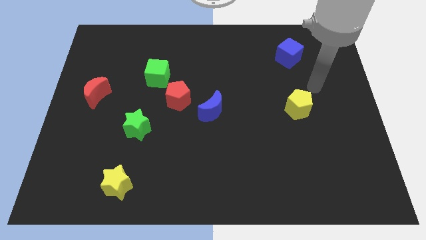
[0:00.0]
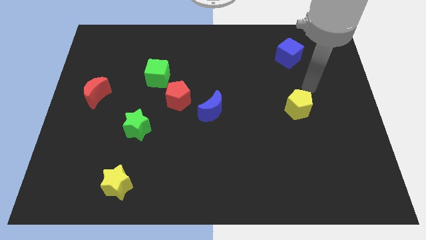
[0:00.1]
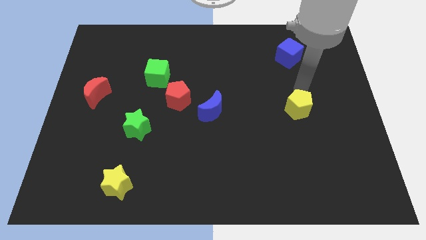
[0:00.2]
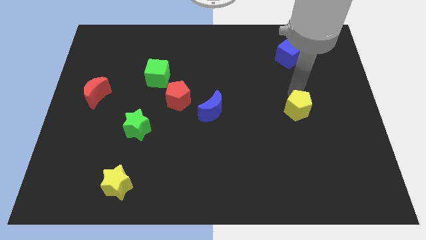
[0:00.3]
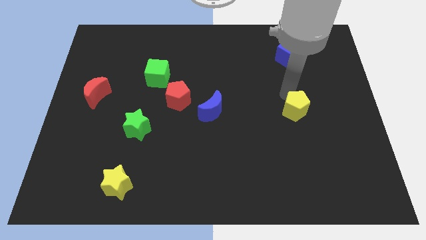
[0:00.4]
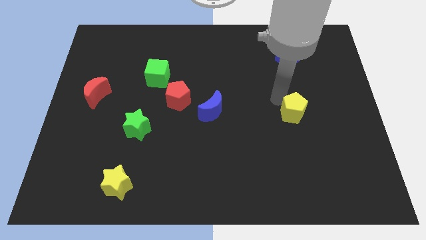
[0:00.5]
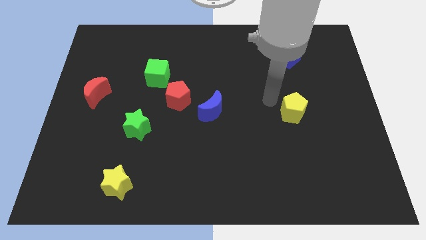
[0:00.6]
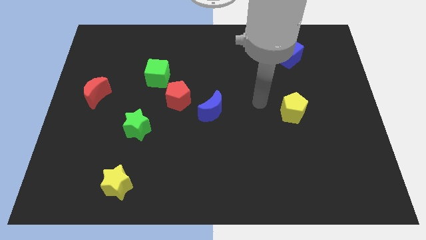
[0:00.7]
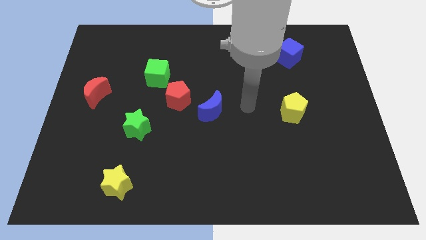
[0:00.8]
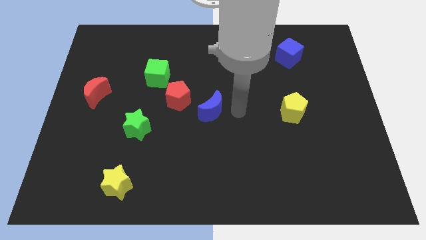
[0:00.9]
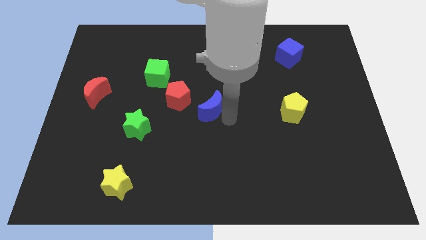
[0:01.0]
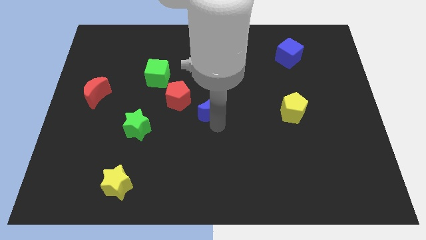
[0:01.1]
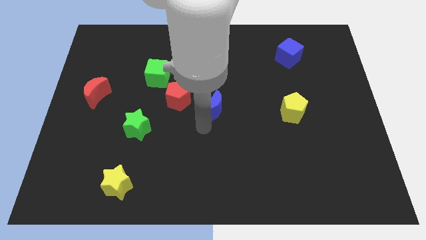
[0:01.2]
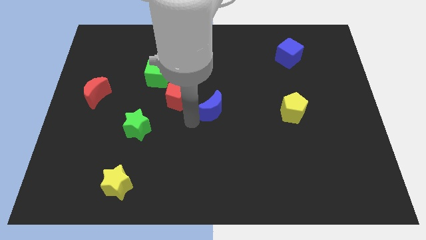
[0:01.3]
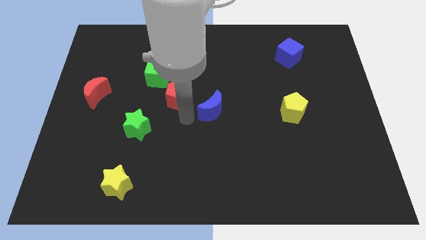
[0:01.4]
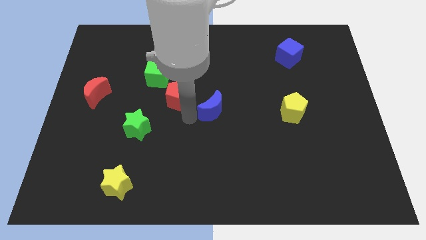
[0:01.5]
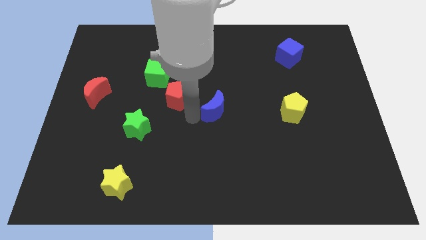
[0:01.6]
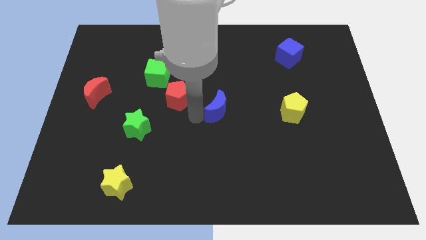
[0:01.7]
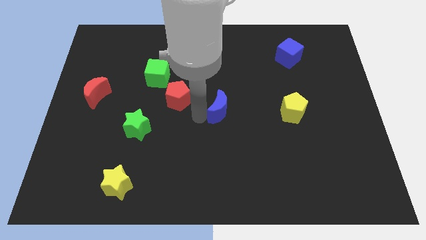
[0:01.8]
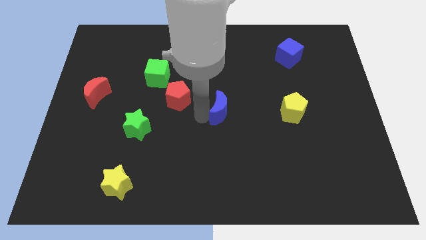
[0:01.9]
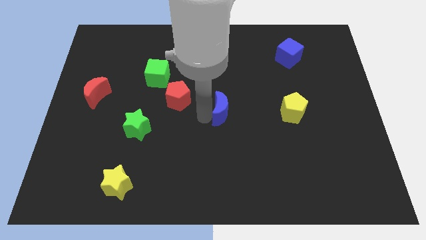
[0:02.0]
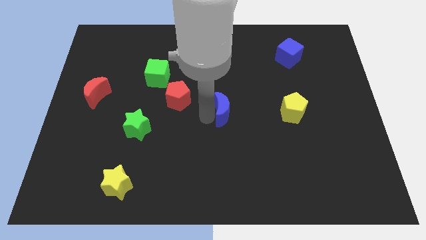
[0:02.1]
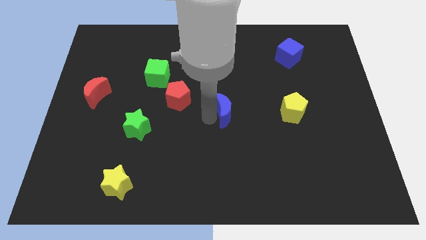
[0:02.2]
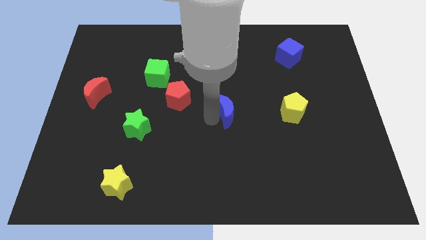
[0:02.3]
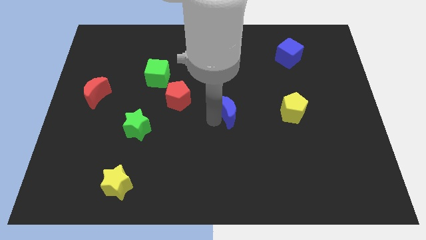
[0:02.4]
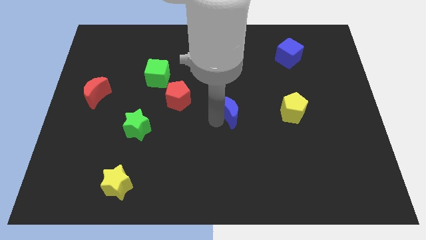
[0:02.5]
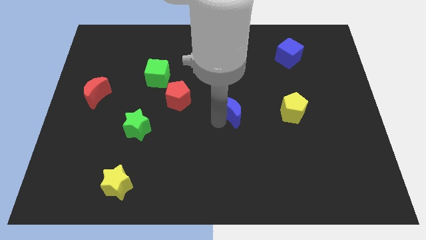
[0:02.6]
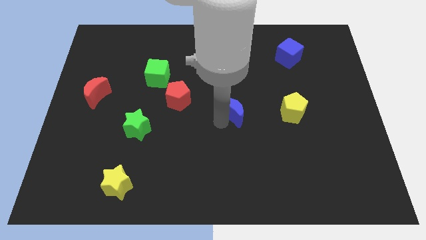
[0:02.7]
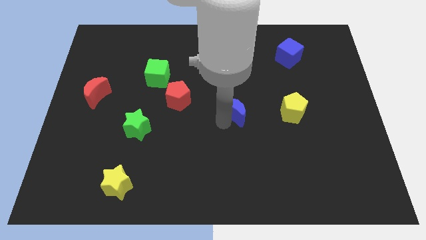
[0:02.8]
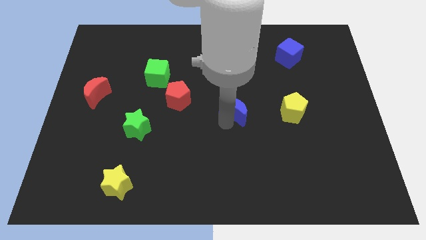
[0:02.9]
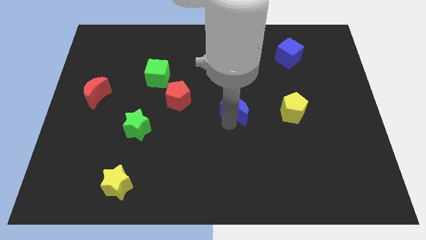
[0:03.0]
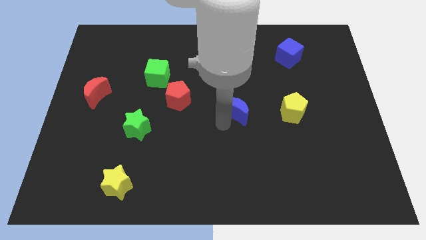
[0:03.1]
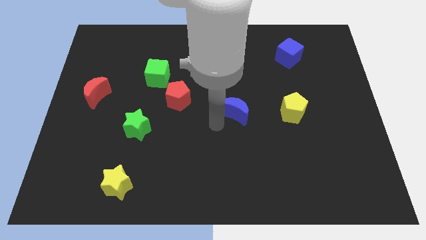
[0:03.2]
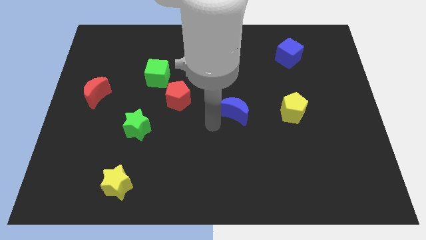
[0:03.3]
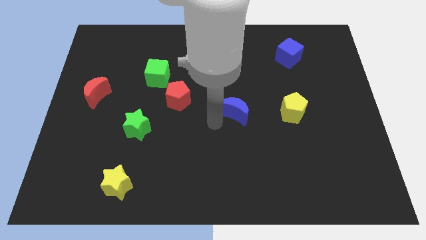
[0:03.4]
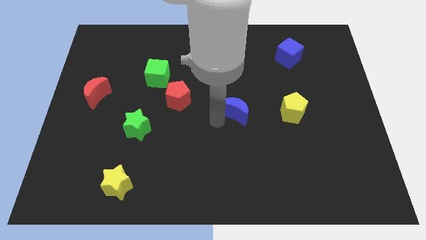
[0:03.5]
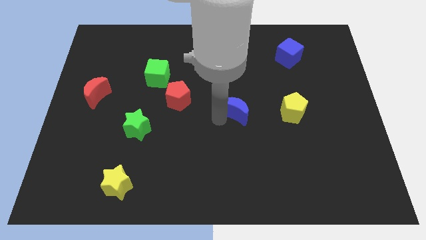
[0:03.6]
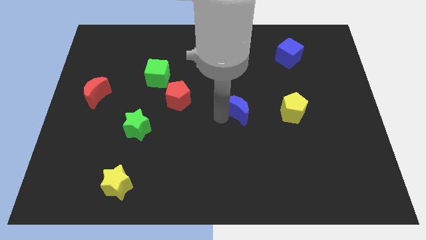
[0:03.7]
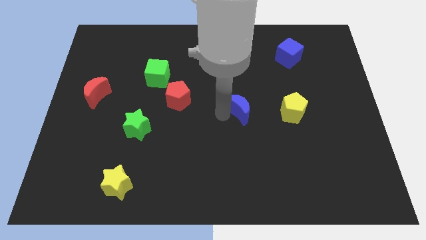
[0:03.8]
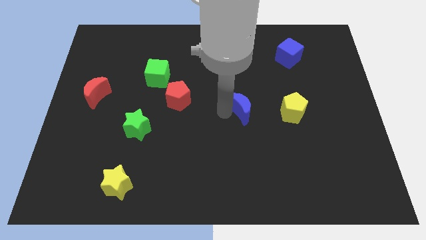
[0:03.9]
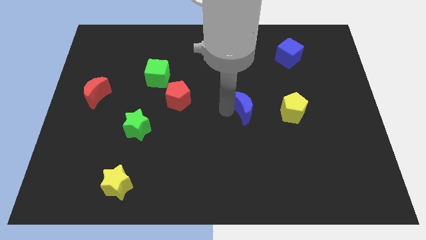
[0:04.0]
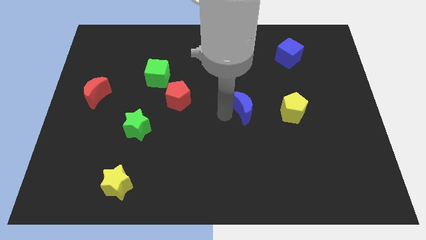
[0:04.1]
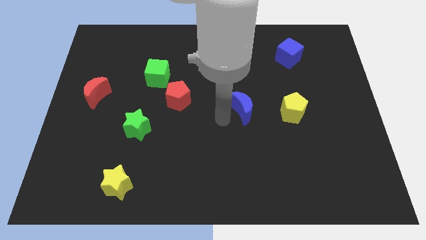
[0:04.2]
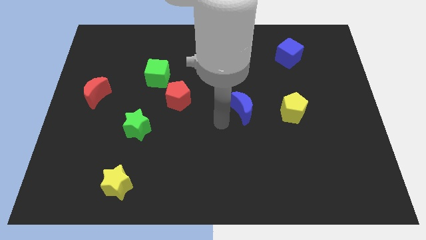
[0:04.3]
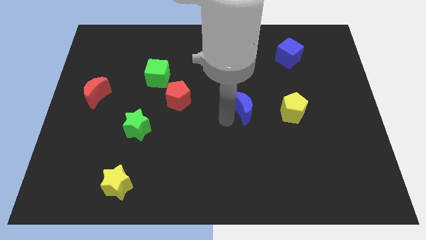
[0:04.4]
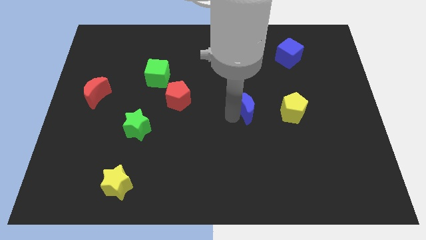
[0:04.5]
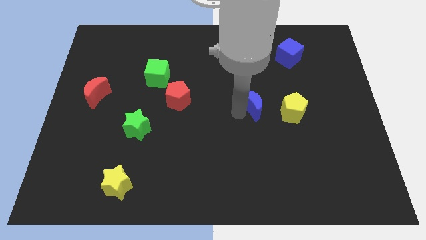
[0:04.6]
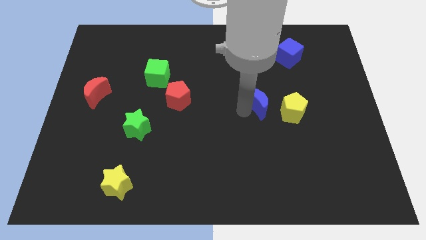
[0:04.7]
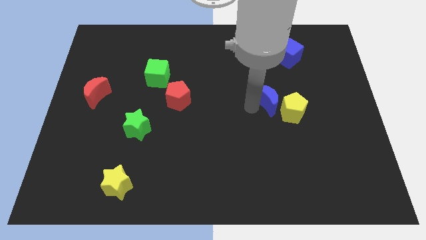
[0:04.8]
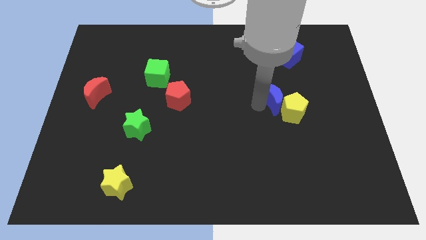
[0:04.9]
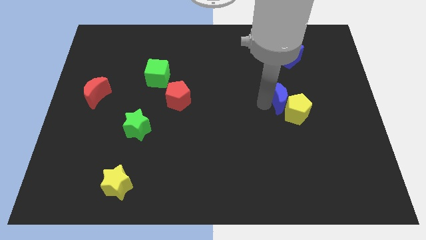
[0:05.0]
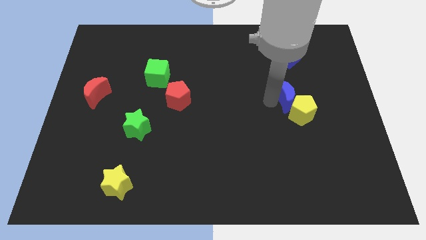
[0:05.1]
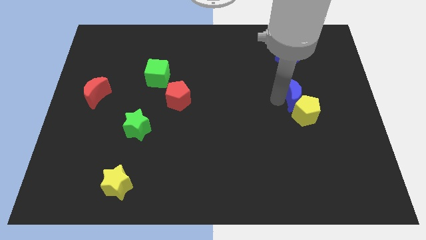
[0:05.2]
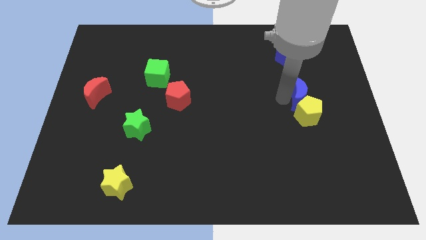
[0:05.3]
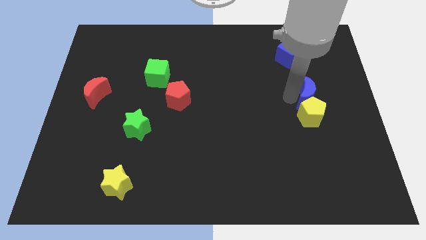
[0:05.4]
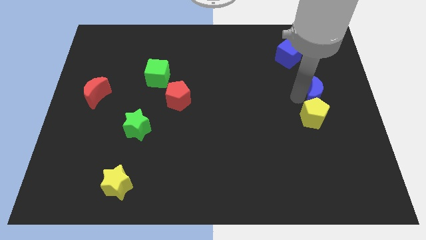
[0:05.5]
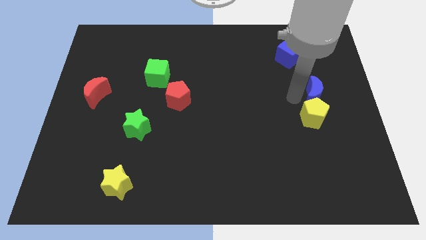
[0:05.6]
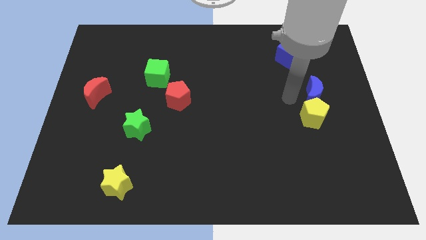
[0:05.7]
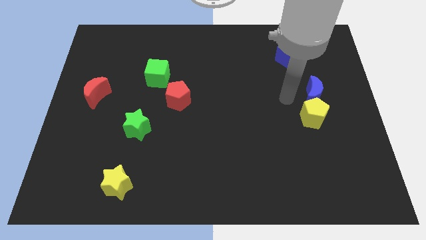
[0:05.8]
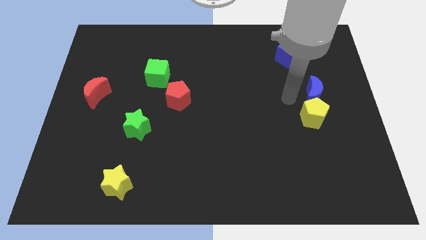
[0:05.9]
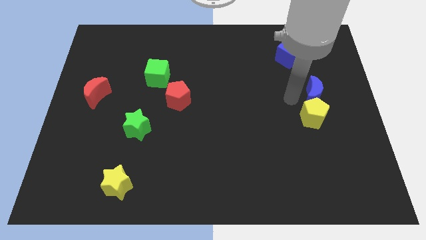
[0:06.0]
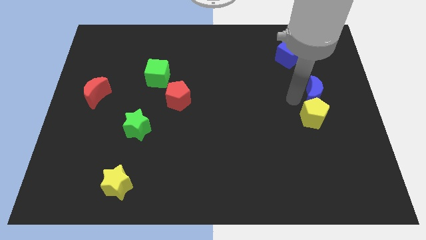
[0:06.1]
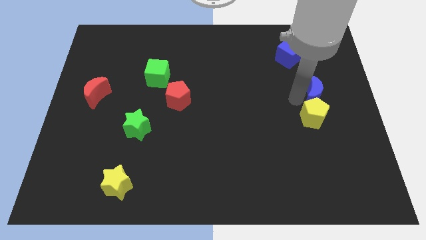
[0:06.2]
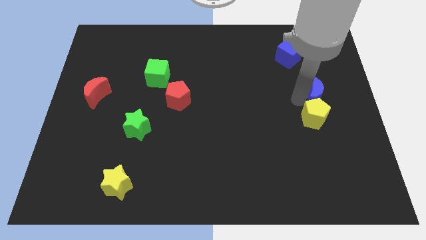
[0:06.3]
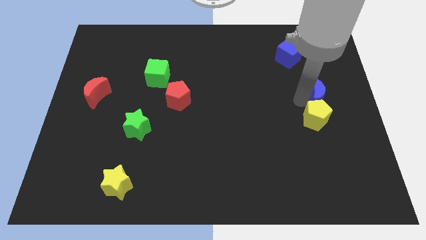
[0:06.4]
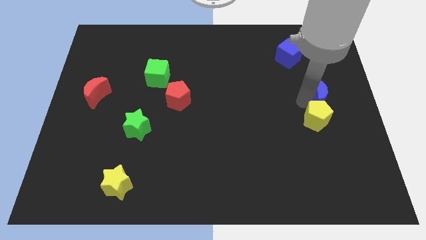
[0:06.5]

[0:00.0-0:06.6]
push the blue moon to the right side of the board
